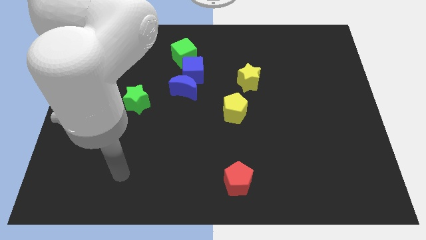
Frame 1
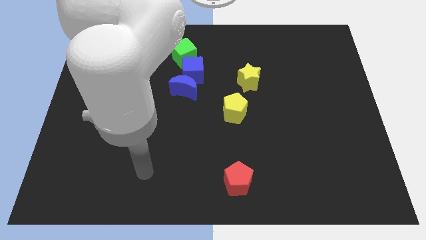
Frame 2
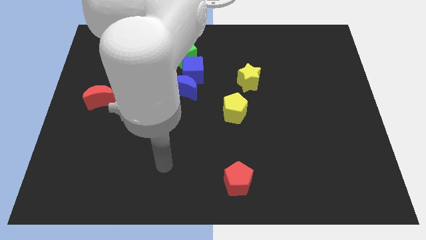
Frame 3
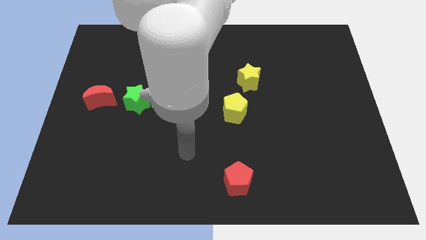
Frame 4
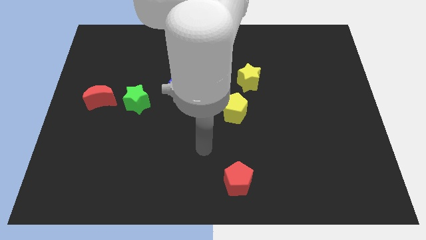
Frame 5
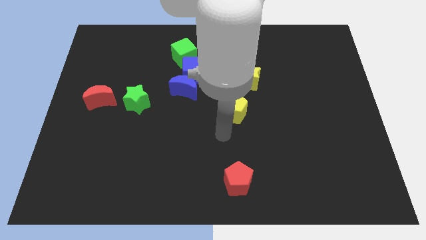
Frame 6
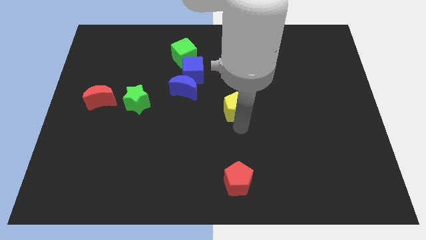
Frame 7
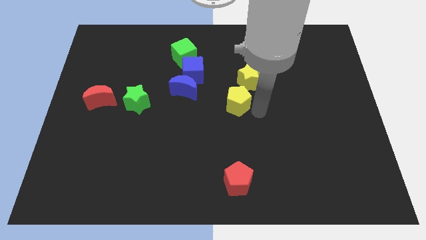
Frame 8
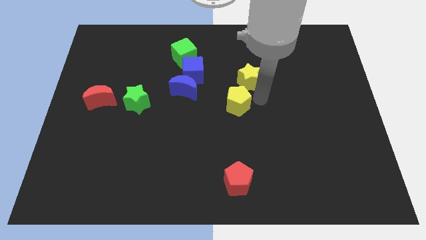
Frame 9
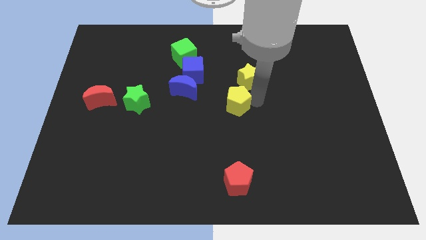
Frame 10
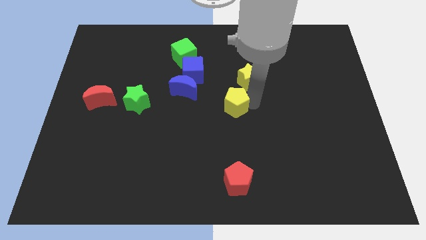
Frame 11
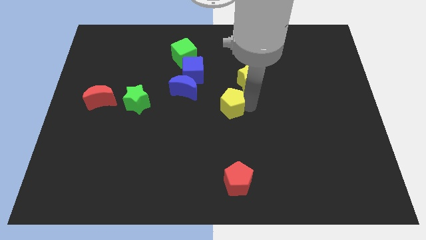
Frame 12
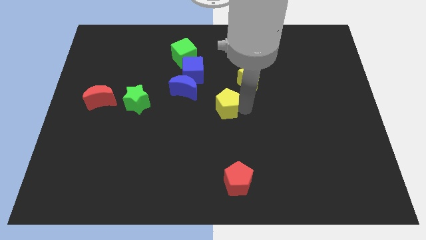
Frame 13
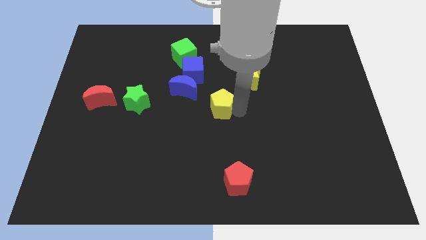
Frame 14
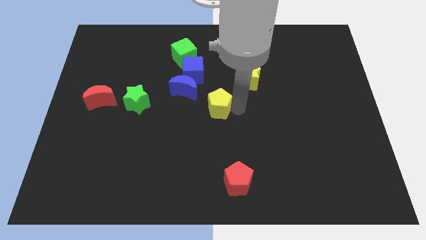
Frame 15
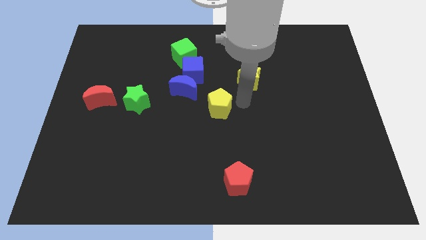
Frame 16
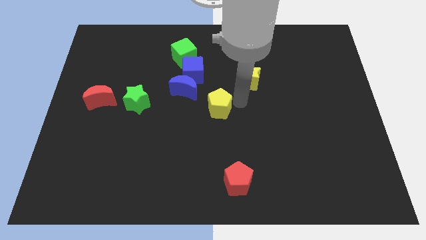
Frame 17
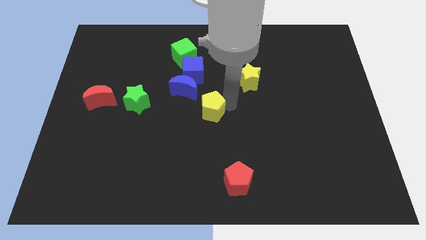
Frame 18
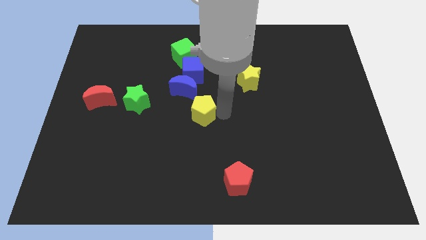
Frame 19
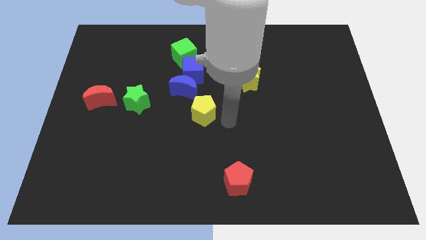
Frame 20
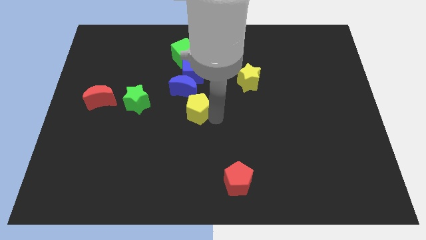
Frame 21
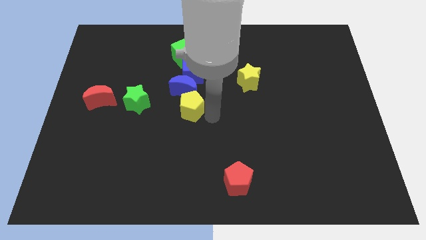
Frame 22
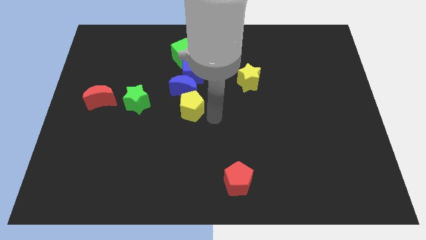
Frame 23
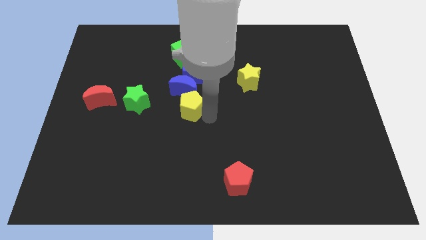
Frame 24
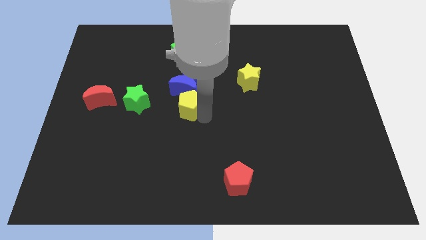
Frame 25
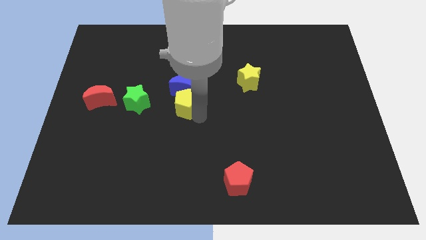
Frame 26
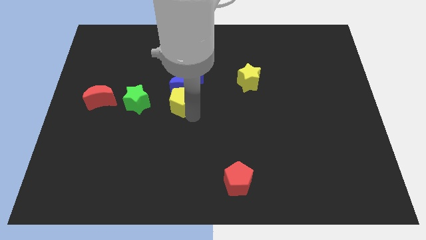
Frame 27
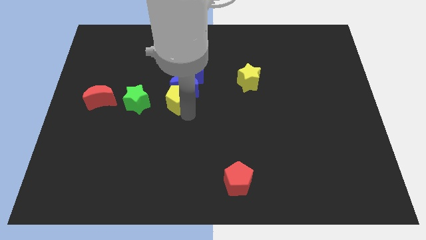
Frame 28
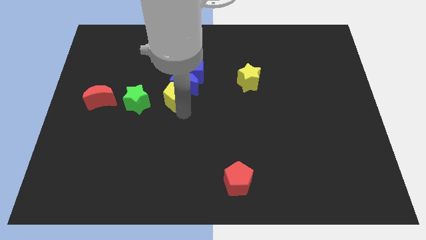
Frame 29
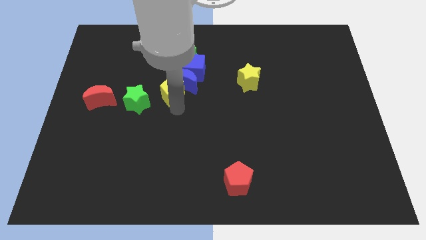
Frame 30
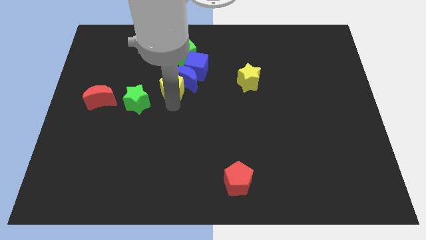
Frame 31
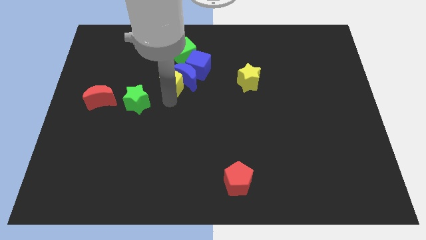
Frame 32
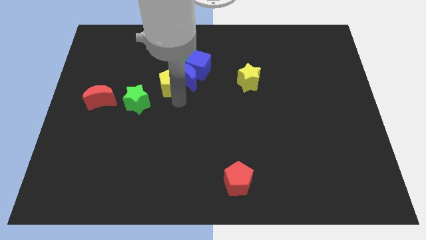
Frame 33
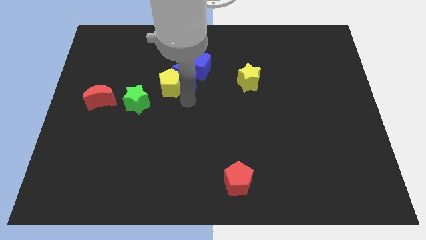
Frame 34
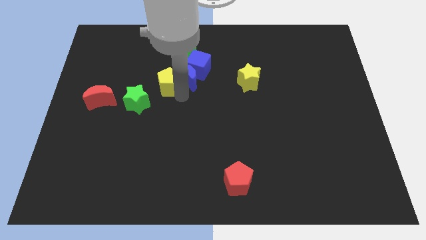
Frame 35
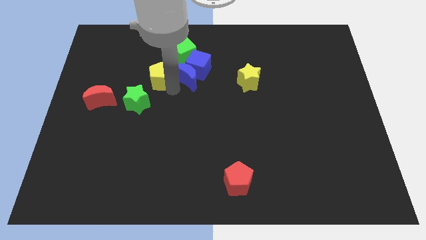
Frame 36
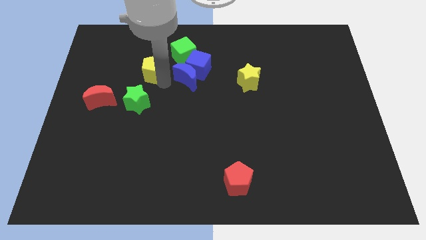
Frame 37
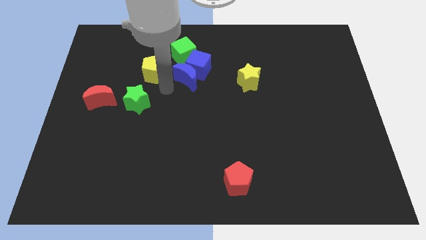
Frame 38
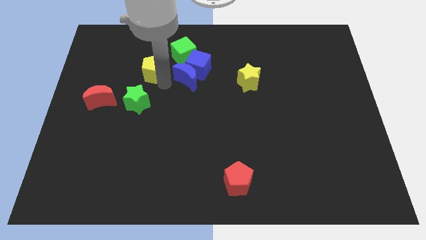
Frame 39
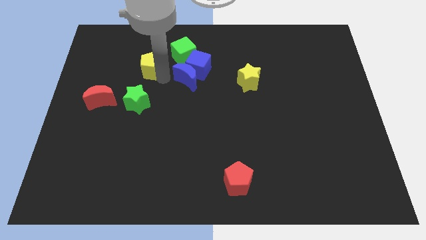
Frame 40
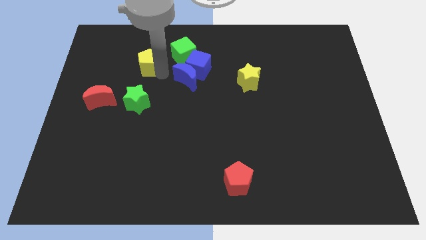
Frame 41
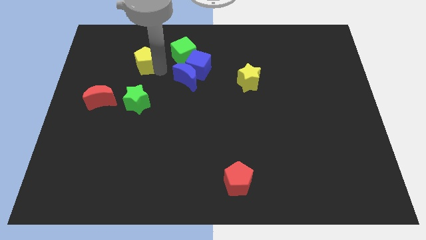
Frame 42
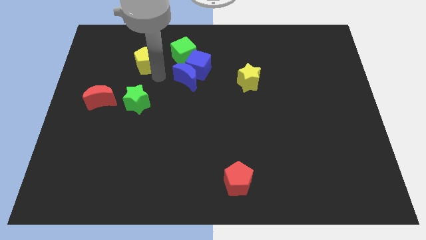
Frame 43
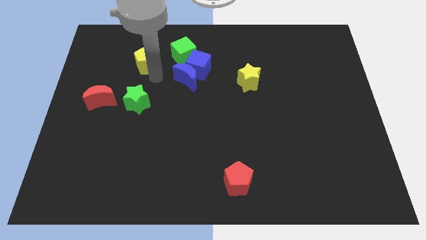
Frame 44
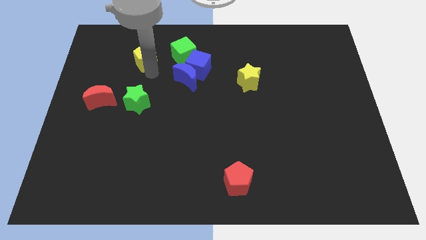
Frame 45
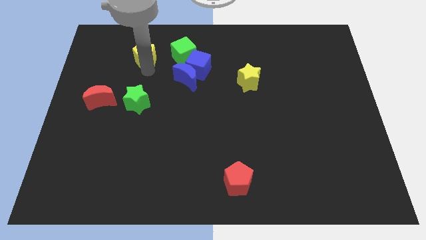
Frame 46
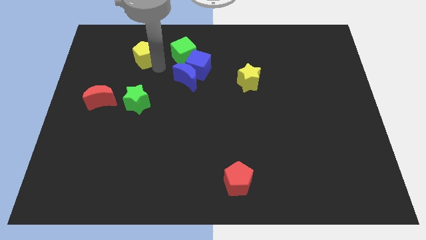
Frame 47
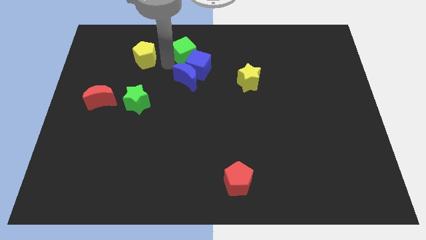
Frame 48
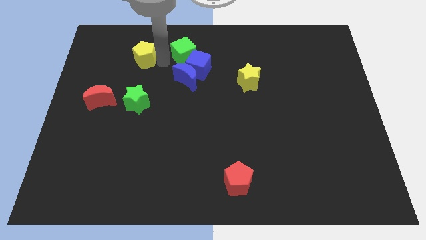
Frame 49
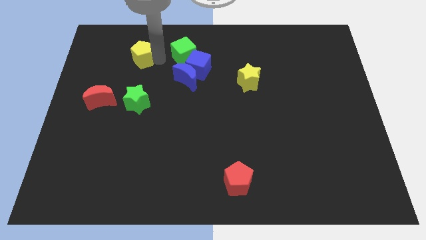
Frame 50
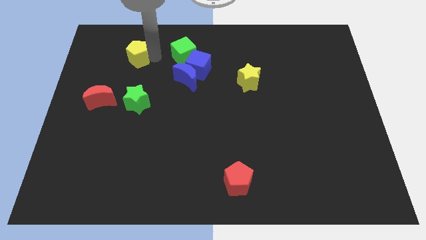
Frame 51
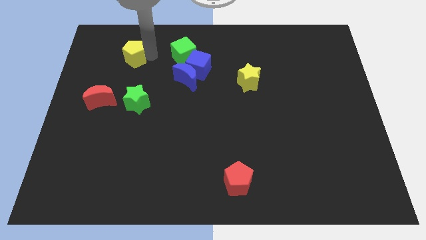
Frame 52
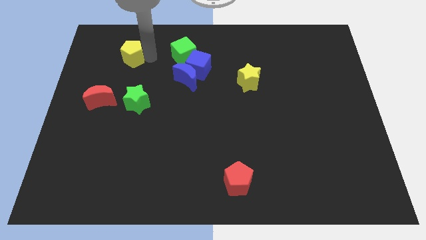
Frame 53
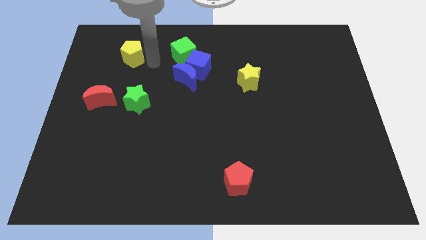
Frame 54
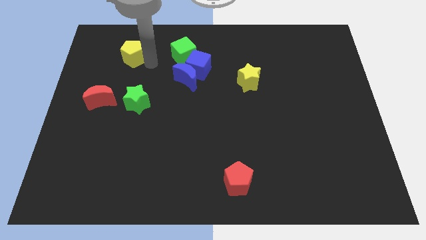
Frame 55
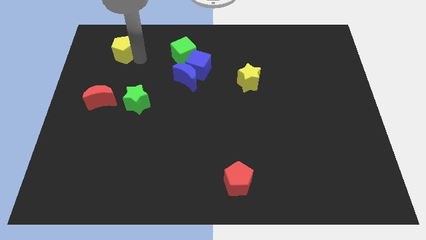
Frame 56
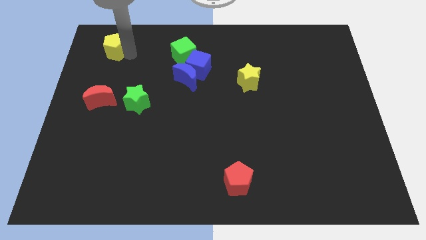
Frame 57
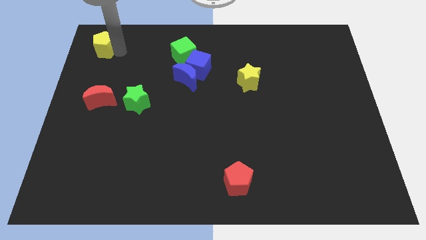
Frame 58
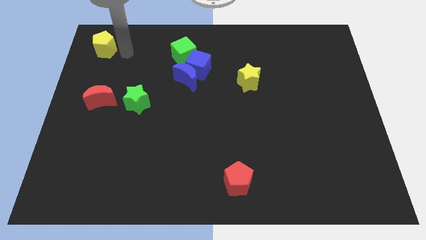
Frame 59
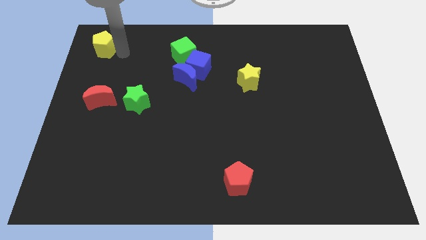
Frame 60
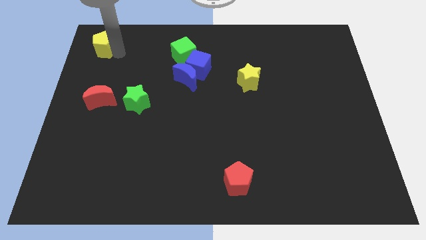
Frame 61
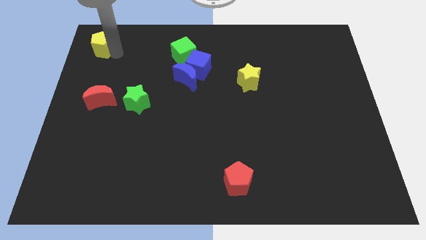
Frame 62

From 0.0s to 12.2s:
slide the yellow pentagon to the upper left corner
